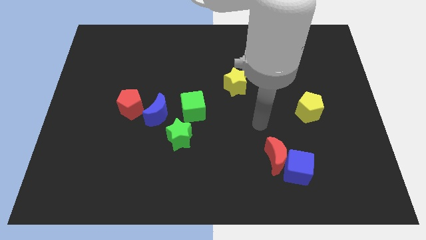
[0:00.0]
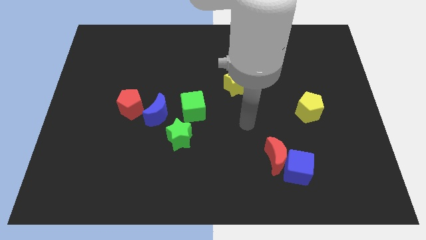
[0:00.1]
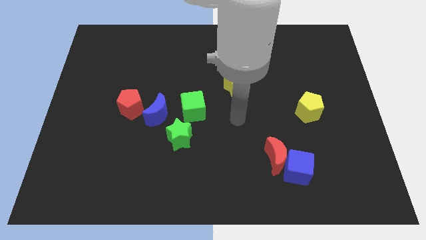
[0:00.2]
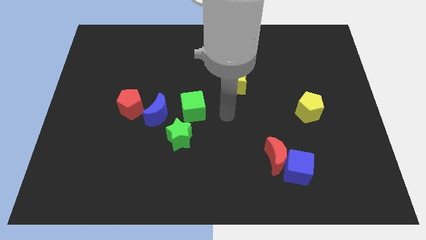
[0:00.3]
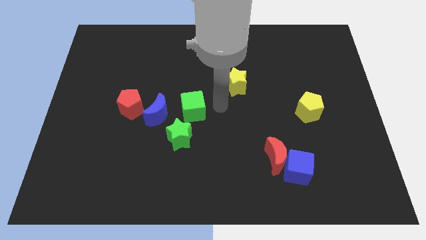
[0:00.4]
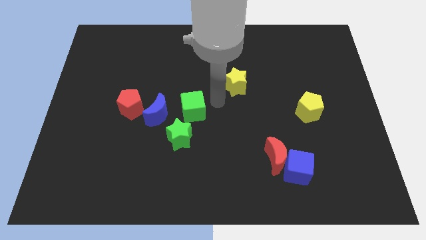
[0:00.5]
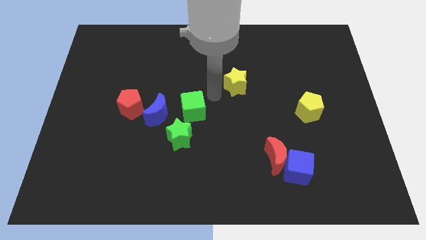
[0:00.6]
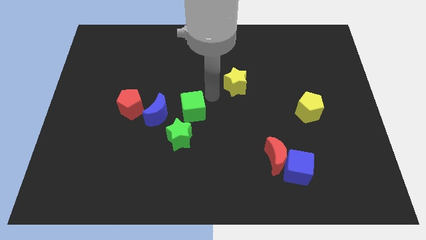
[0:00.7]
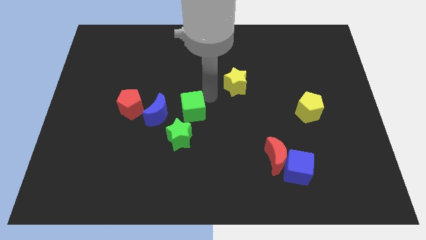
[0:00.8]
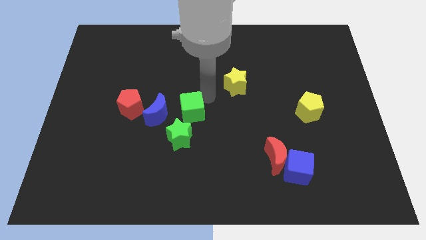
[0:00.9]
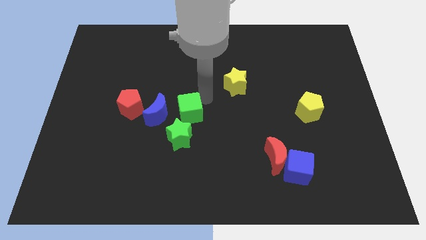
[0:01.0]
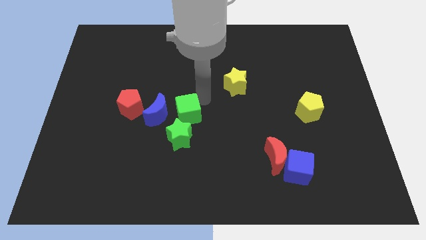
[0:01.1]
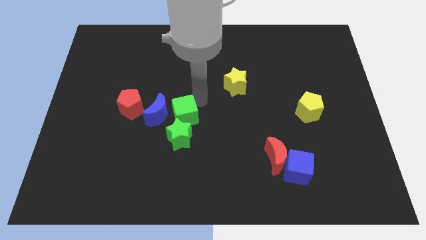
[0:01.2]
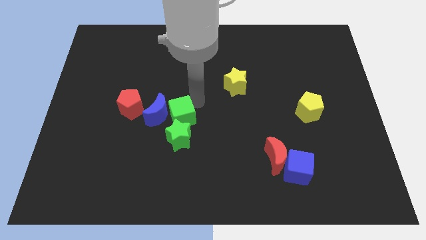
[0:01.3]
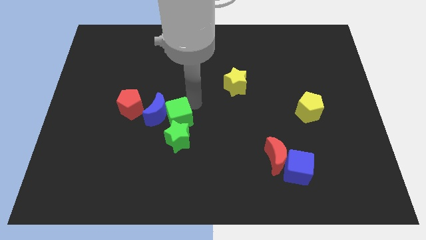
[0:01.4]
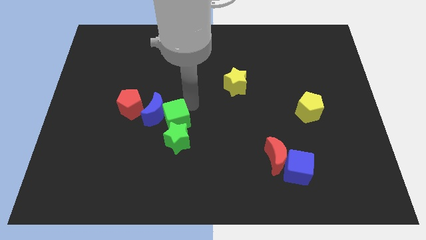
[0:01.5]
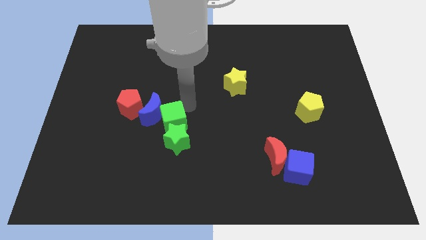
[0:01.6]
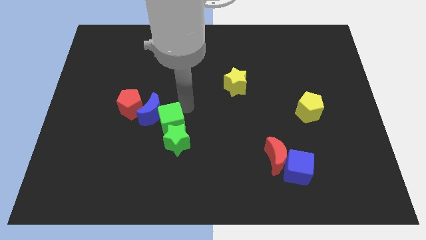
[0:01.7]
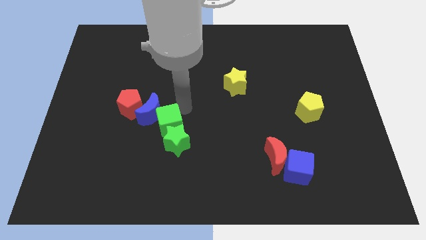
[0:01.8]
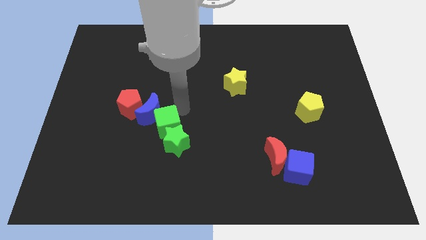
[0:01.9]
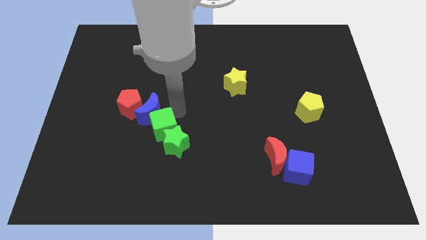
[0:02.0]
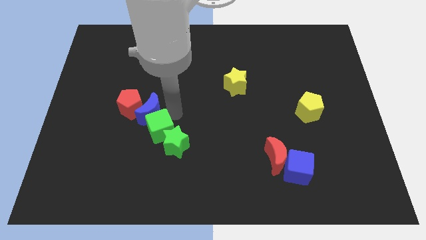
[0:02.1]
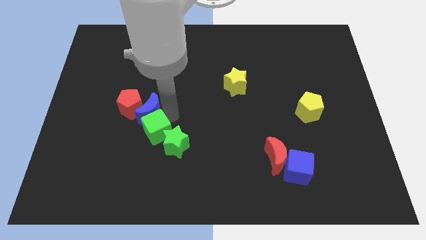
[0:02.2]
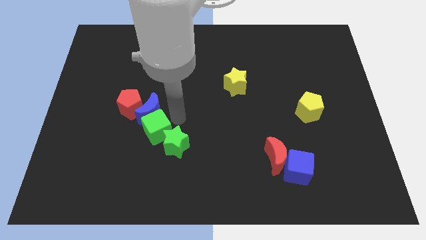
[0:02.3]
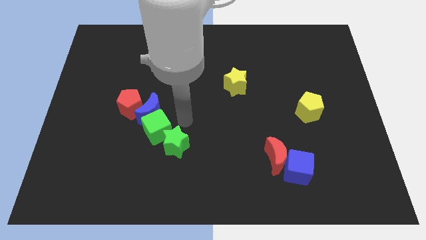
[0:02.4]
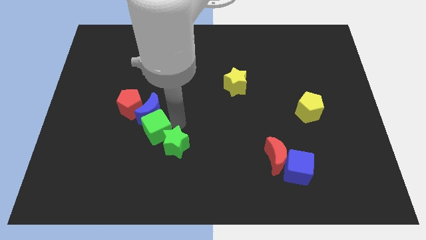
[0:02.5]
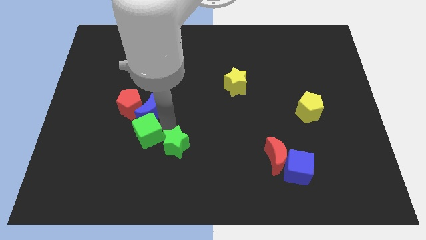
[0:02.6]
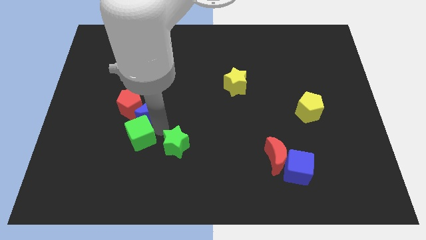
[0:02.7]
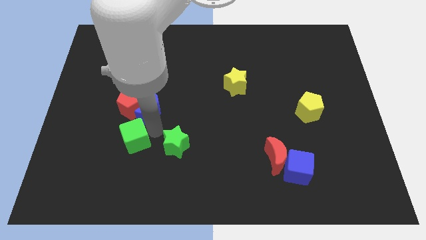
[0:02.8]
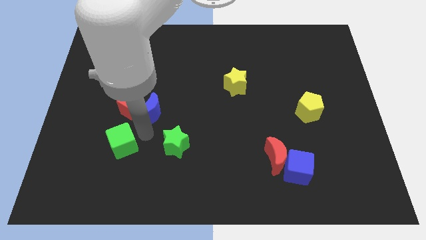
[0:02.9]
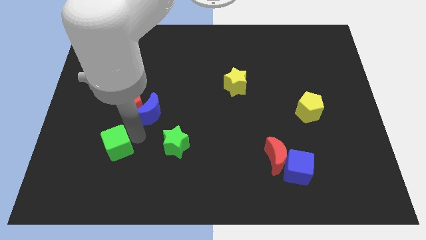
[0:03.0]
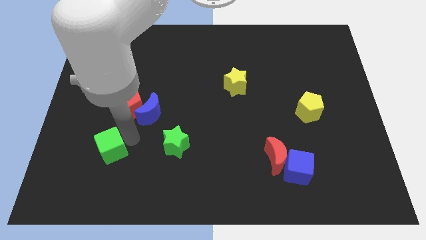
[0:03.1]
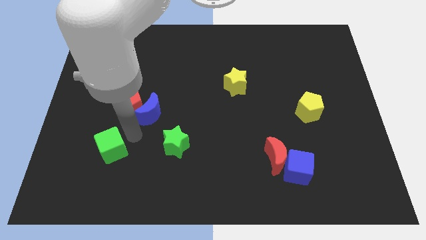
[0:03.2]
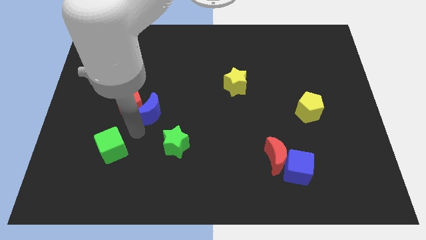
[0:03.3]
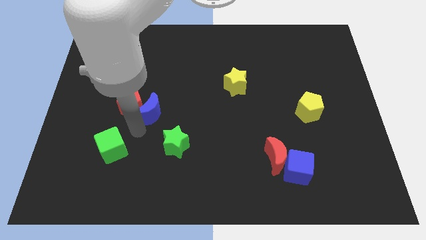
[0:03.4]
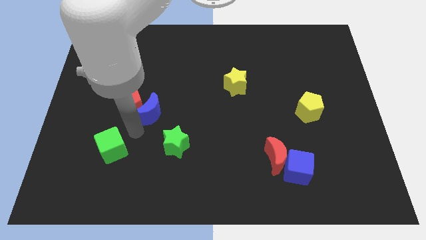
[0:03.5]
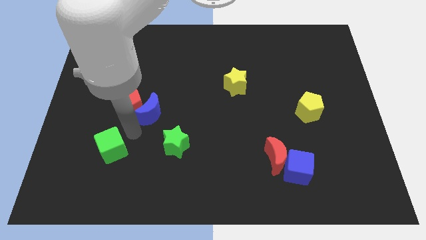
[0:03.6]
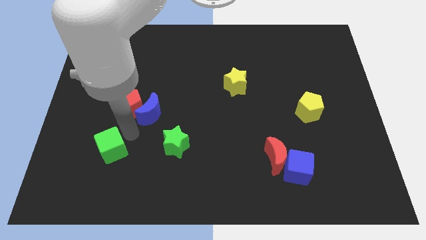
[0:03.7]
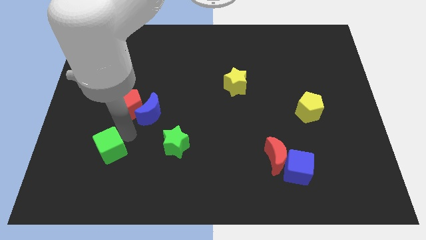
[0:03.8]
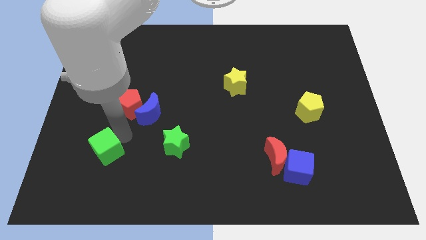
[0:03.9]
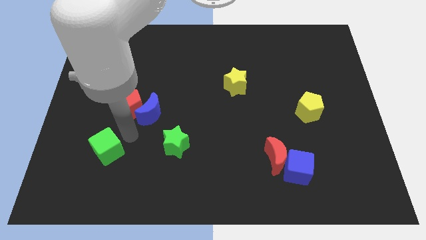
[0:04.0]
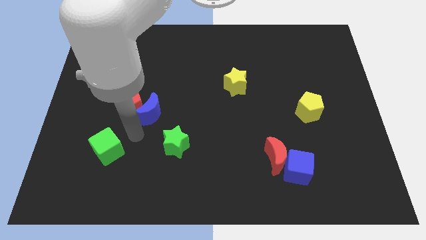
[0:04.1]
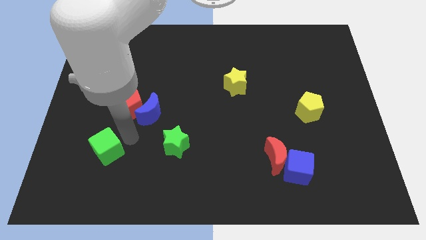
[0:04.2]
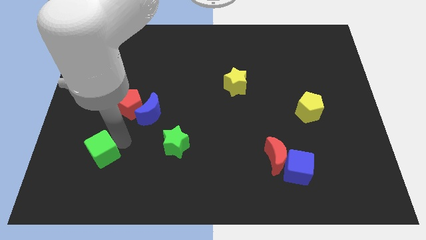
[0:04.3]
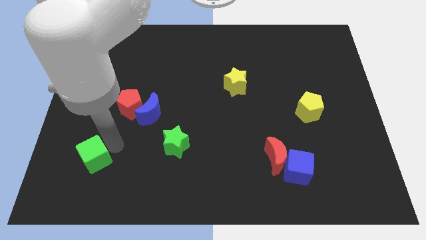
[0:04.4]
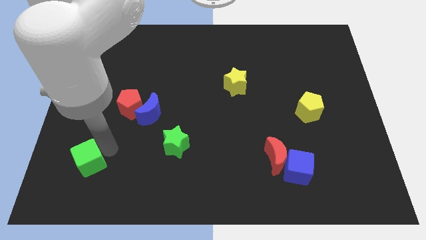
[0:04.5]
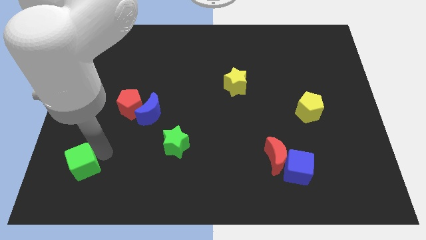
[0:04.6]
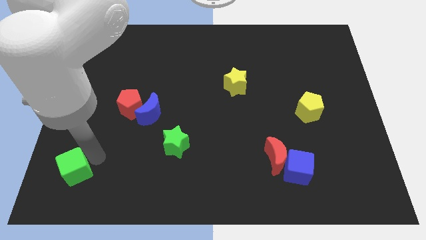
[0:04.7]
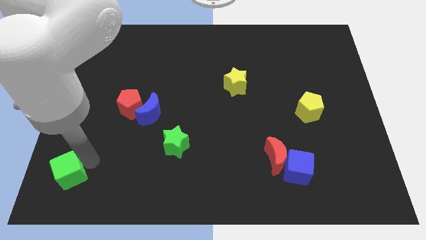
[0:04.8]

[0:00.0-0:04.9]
put the green cube to the bottom left corner

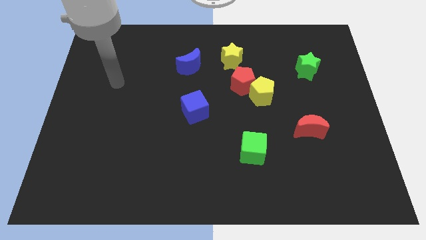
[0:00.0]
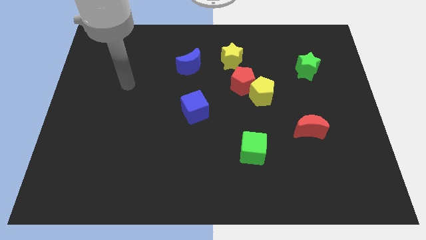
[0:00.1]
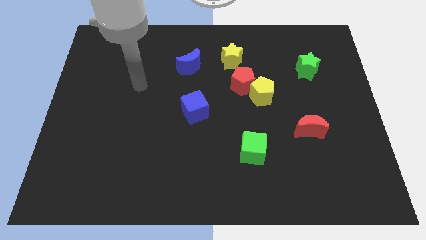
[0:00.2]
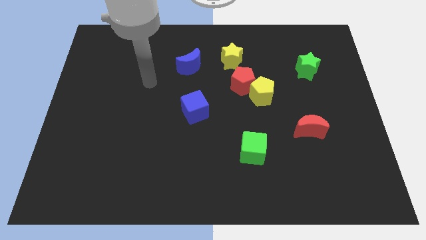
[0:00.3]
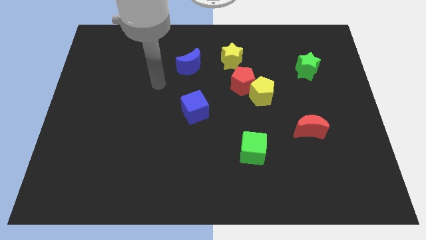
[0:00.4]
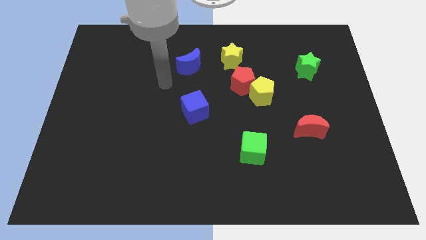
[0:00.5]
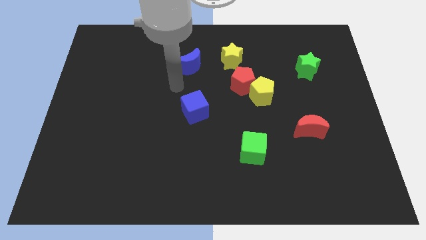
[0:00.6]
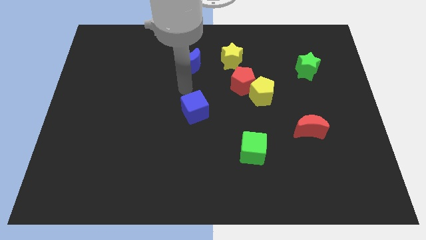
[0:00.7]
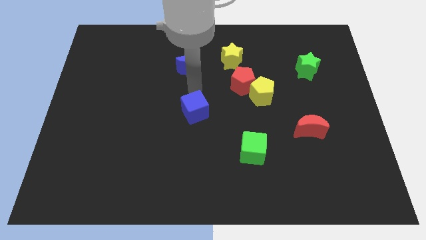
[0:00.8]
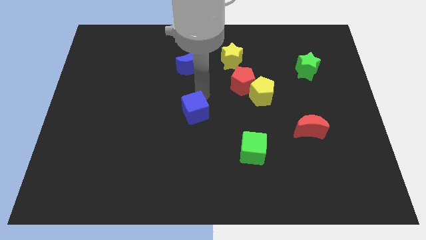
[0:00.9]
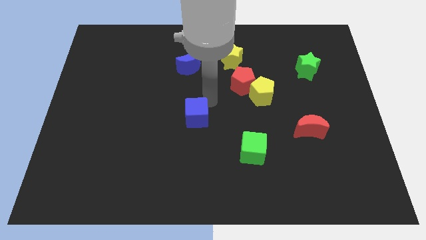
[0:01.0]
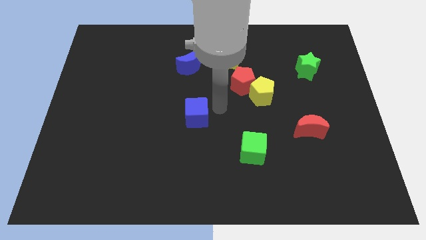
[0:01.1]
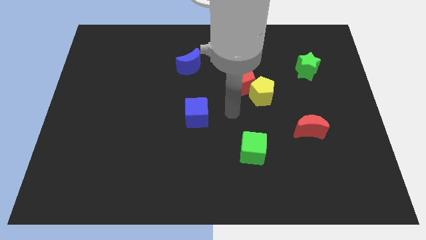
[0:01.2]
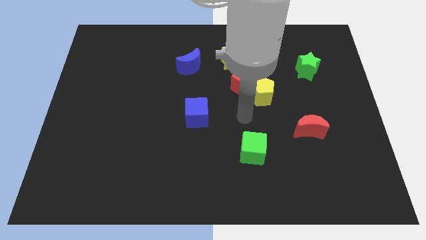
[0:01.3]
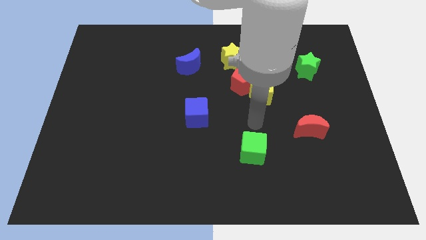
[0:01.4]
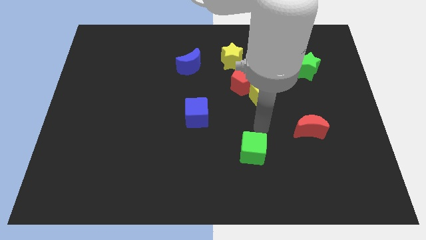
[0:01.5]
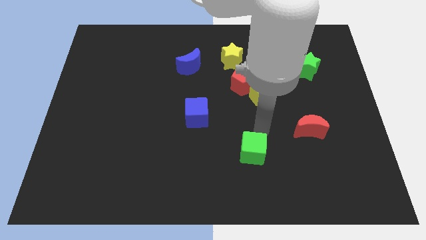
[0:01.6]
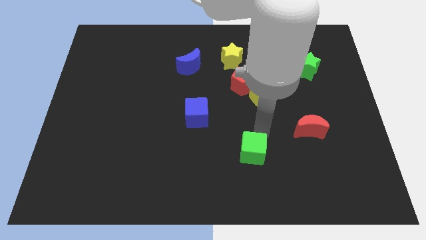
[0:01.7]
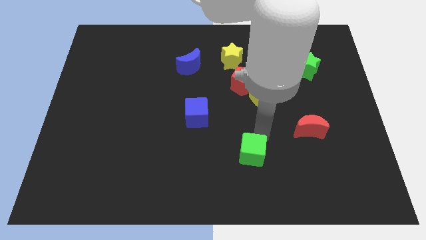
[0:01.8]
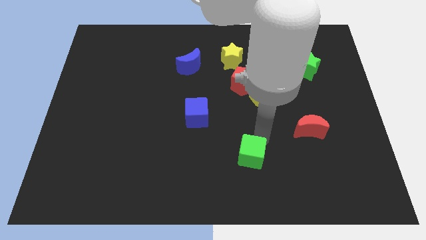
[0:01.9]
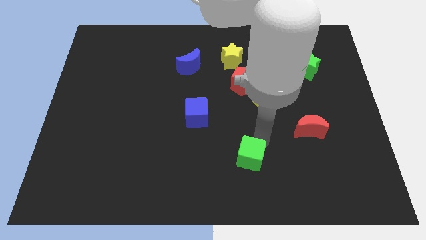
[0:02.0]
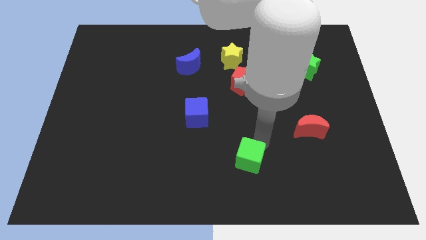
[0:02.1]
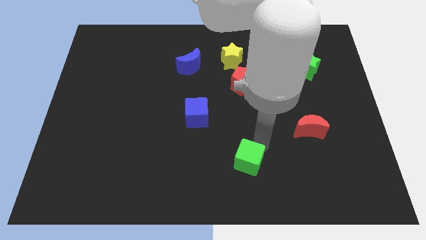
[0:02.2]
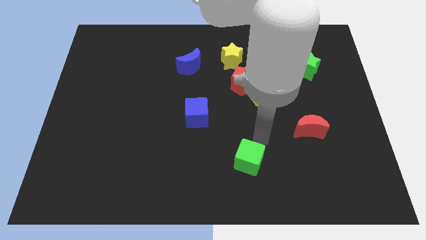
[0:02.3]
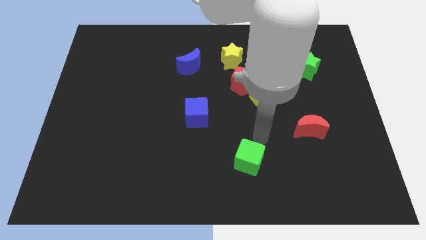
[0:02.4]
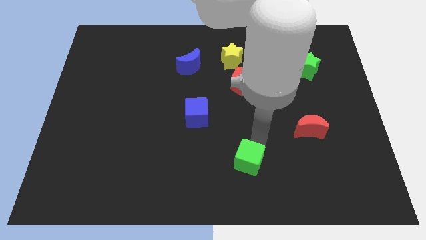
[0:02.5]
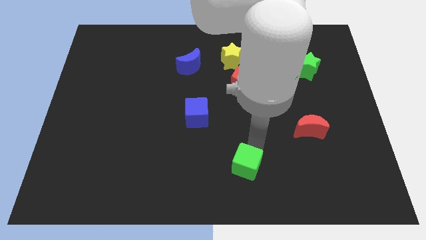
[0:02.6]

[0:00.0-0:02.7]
slide the green cube to the bottom side
